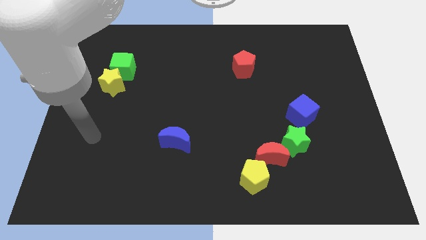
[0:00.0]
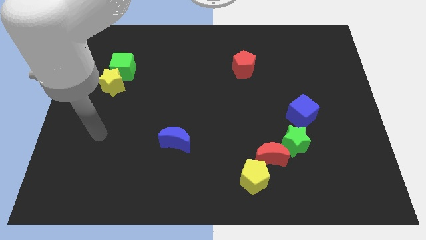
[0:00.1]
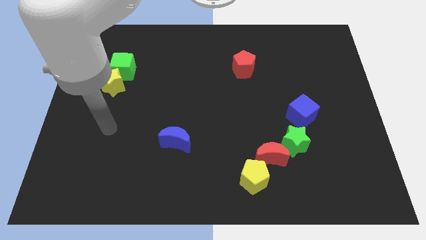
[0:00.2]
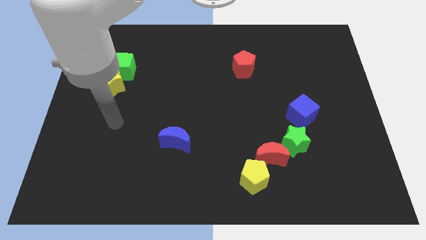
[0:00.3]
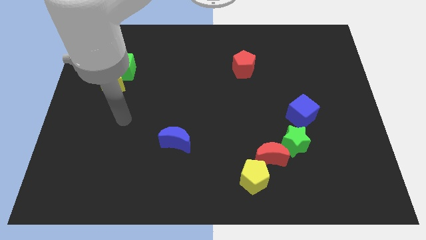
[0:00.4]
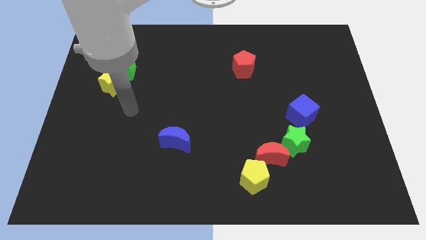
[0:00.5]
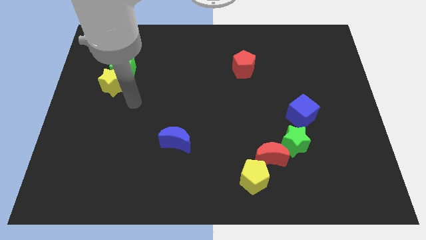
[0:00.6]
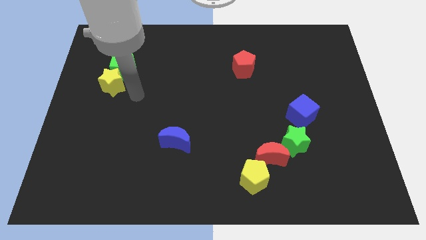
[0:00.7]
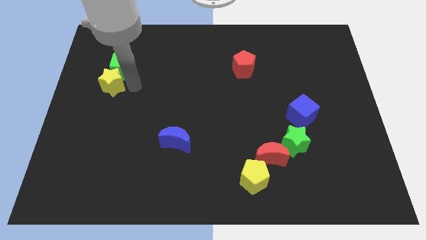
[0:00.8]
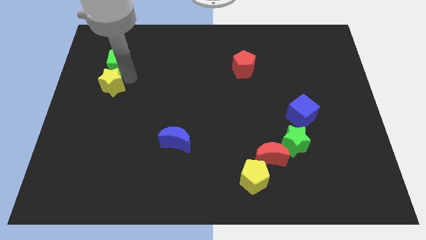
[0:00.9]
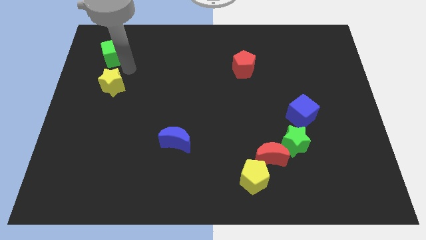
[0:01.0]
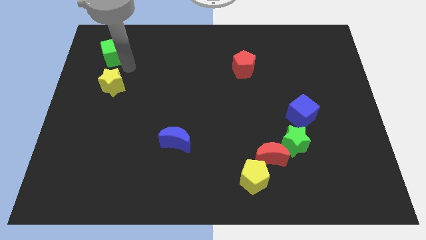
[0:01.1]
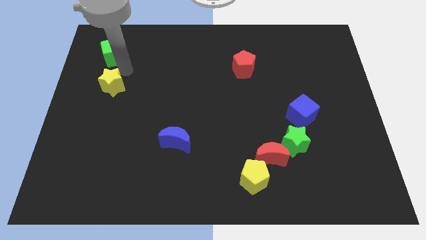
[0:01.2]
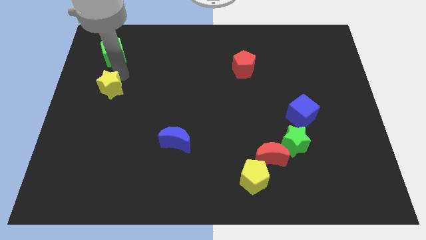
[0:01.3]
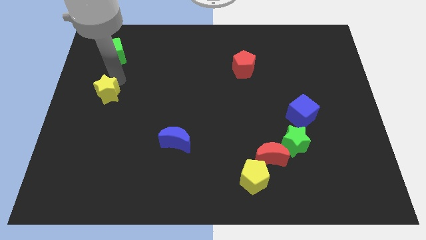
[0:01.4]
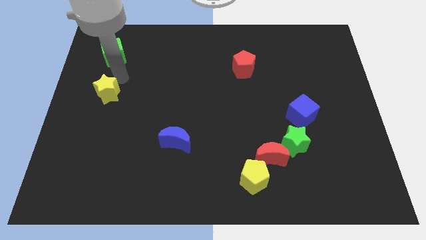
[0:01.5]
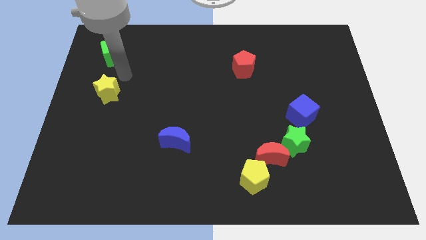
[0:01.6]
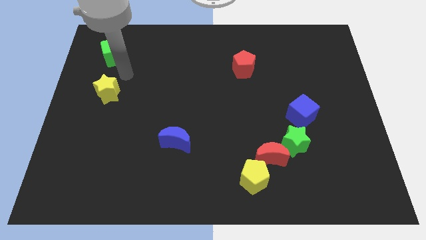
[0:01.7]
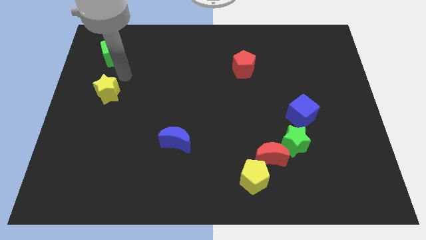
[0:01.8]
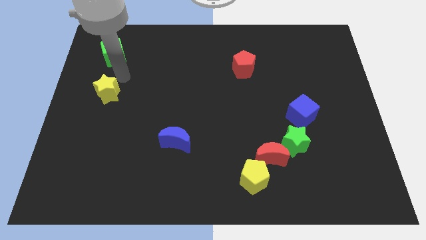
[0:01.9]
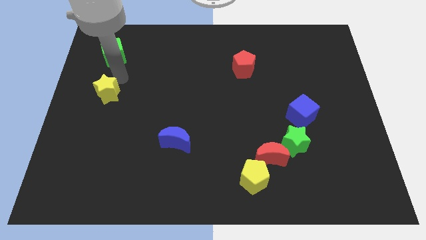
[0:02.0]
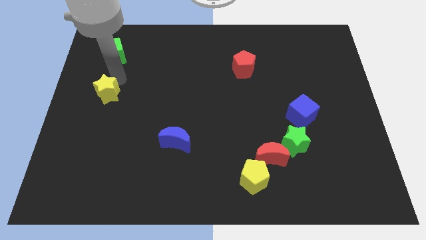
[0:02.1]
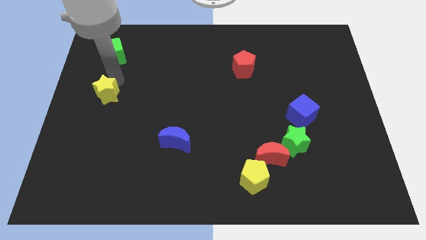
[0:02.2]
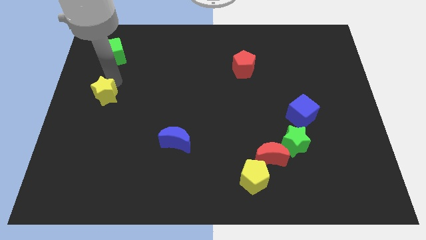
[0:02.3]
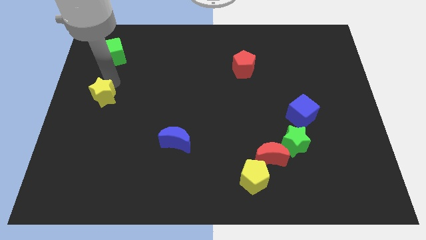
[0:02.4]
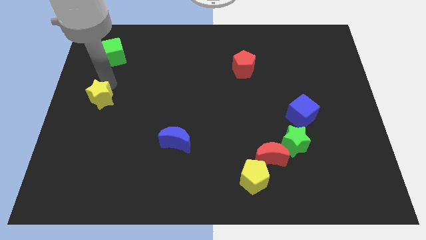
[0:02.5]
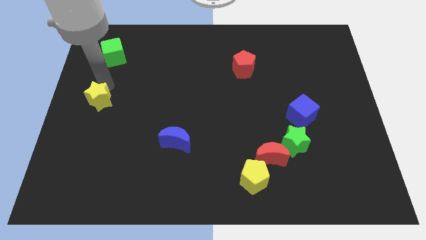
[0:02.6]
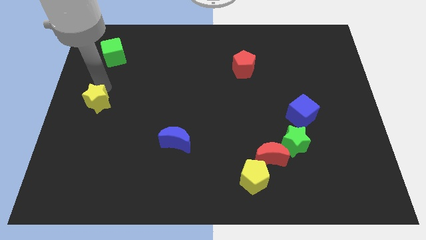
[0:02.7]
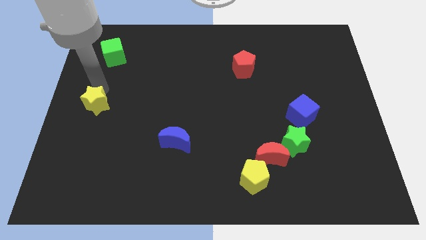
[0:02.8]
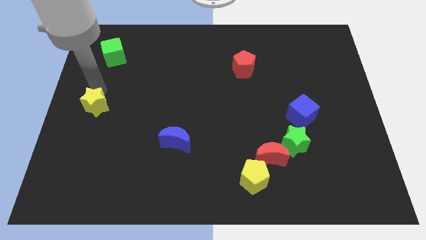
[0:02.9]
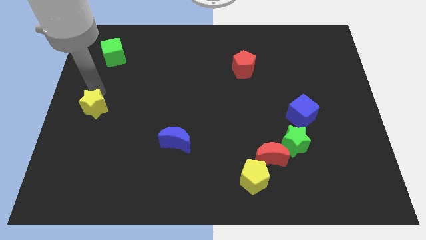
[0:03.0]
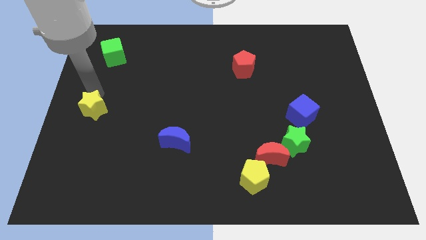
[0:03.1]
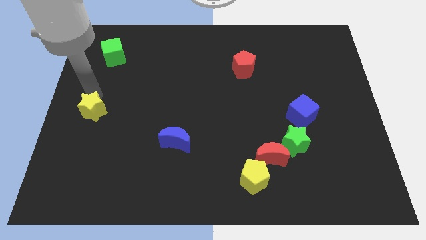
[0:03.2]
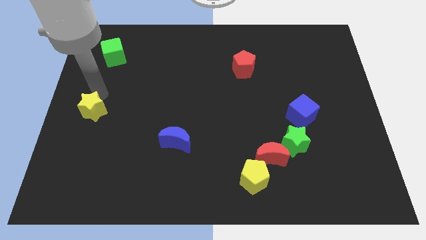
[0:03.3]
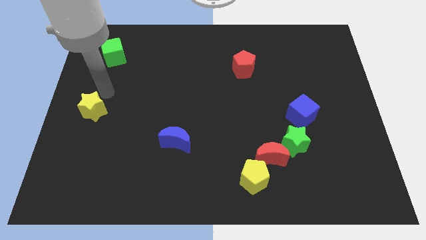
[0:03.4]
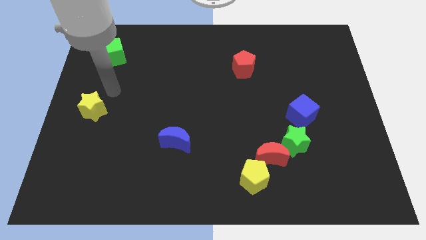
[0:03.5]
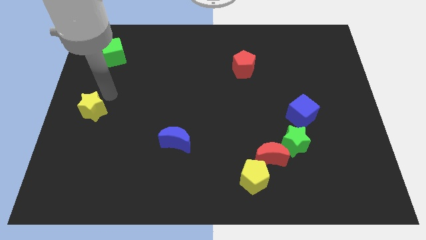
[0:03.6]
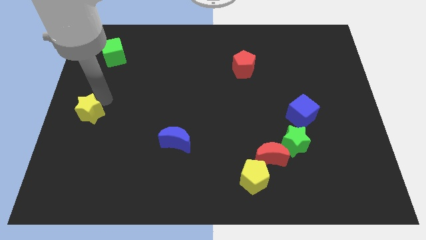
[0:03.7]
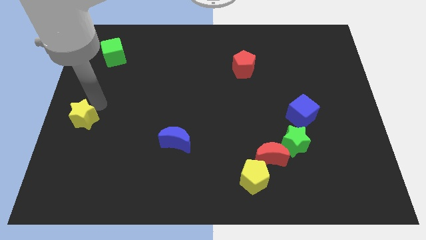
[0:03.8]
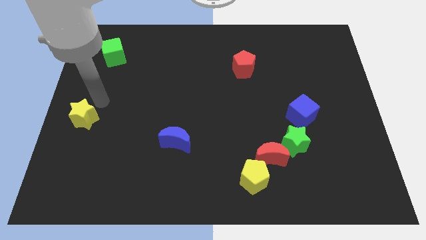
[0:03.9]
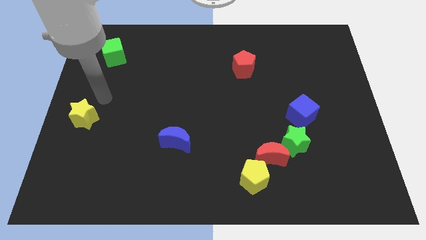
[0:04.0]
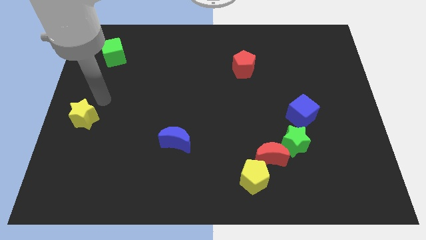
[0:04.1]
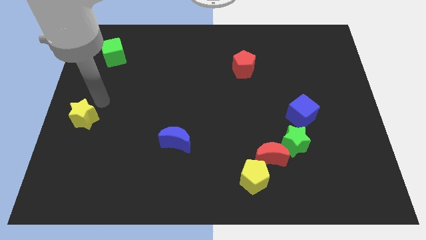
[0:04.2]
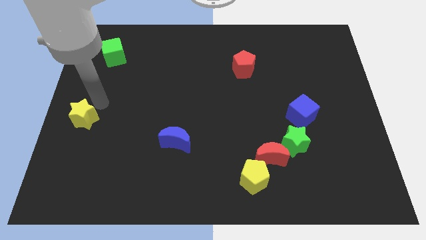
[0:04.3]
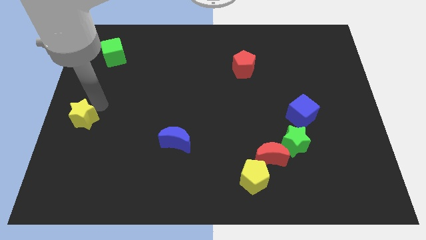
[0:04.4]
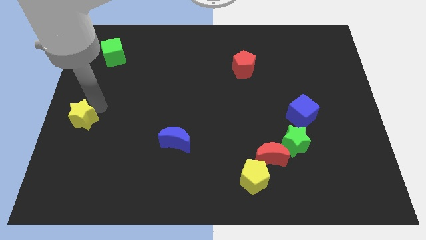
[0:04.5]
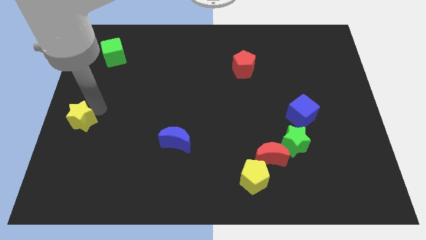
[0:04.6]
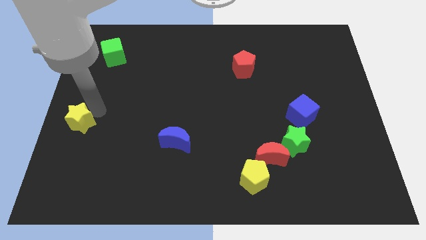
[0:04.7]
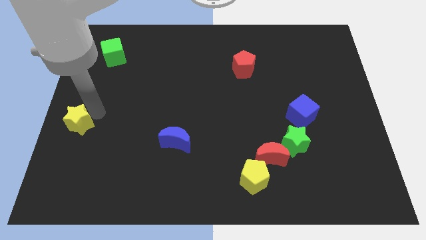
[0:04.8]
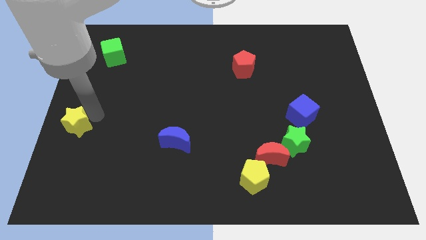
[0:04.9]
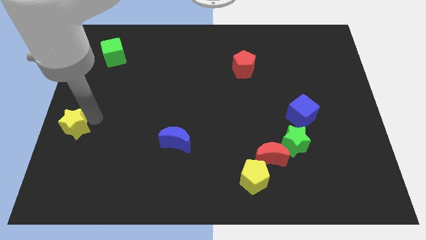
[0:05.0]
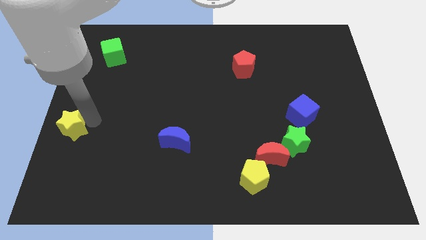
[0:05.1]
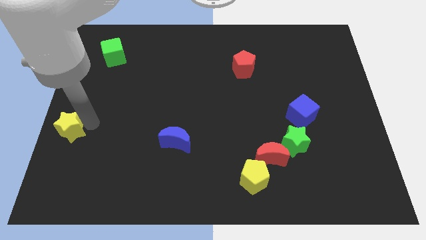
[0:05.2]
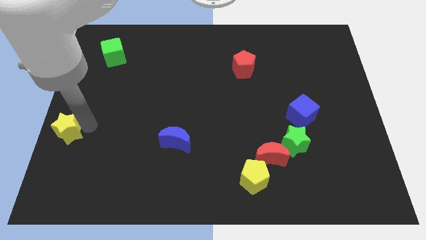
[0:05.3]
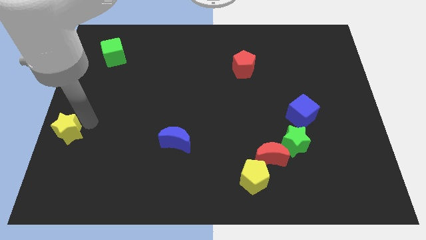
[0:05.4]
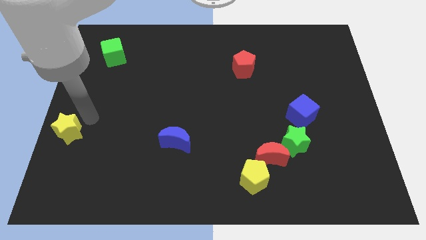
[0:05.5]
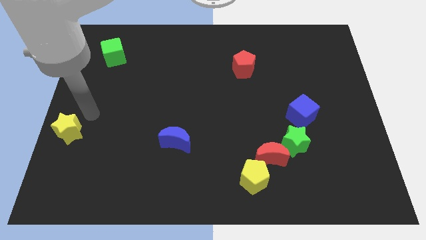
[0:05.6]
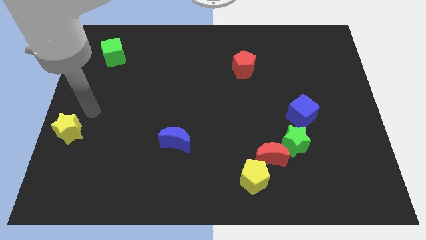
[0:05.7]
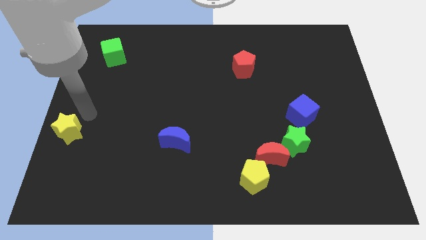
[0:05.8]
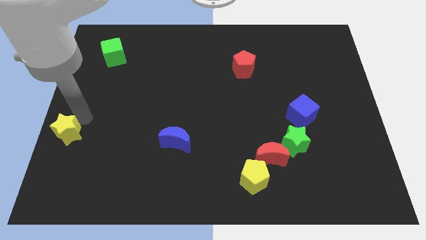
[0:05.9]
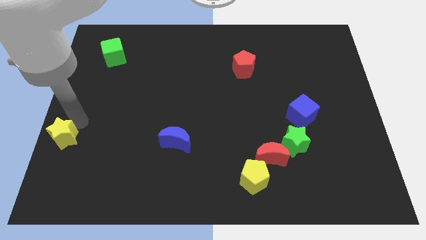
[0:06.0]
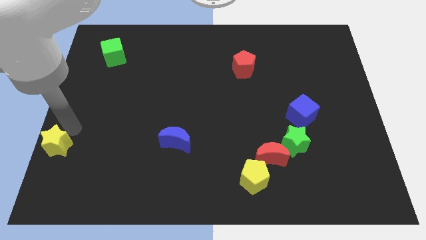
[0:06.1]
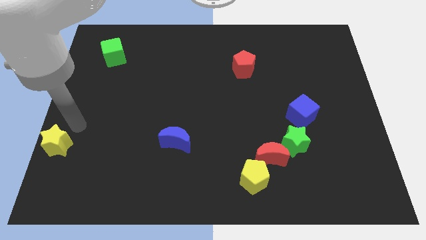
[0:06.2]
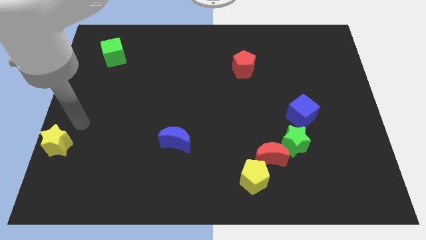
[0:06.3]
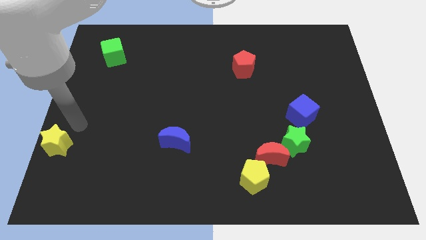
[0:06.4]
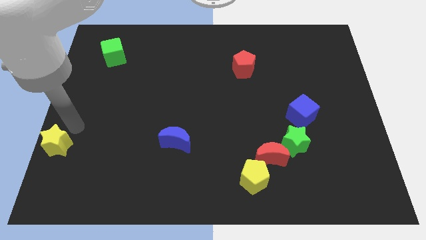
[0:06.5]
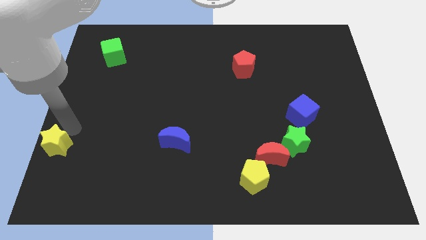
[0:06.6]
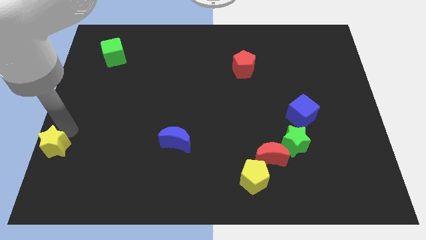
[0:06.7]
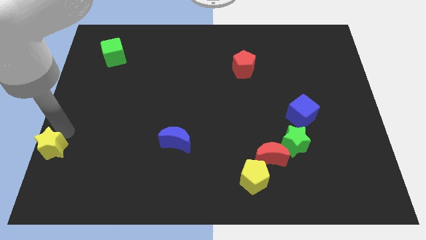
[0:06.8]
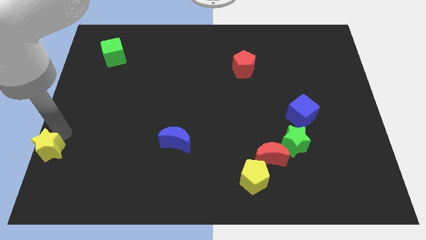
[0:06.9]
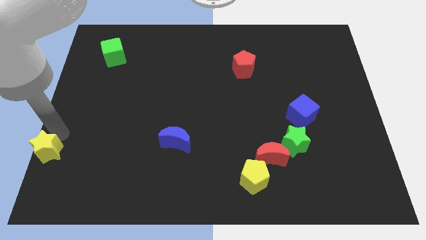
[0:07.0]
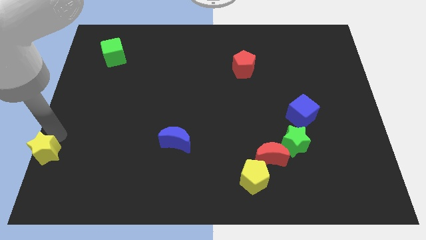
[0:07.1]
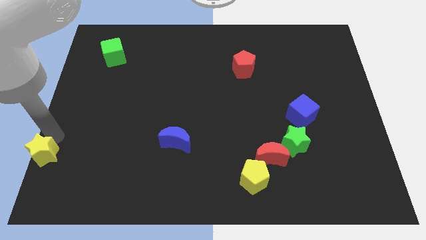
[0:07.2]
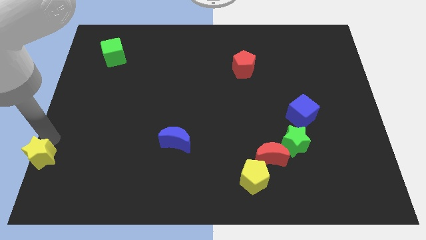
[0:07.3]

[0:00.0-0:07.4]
push the yellow star to the lower left corner
